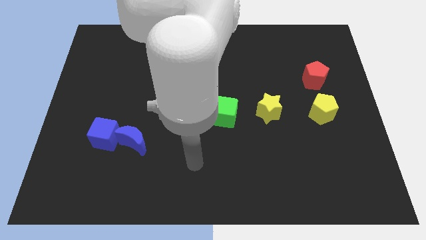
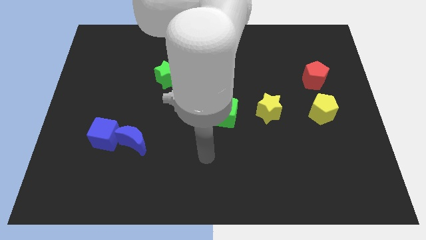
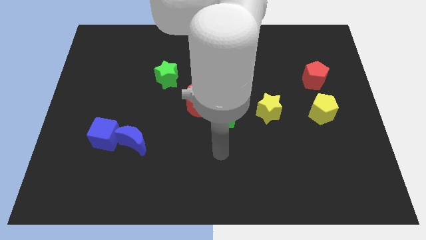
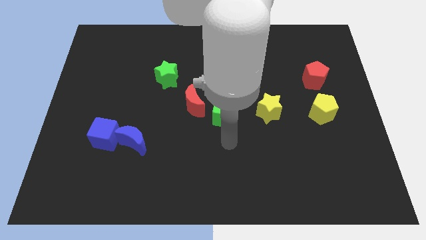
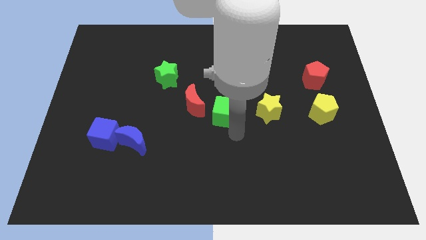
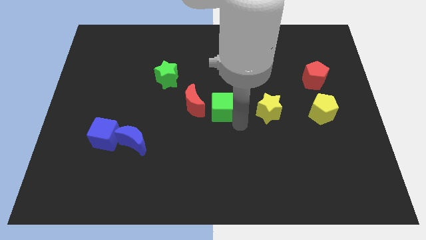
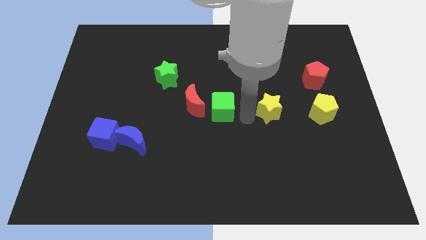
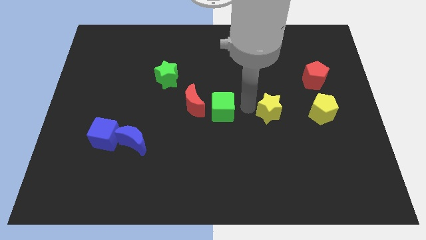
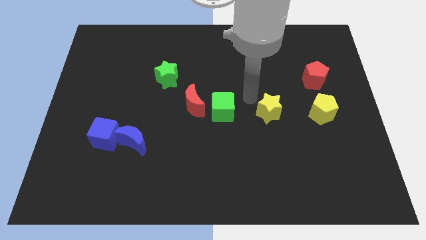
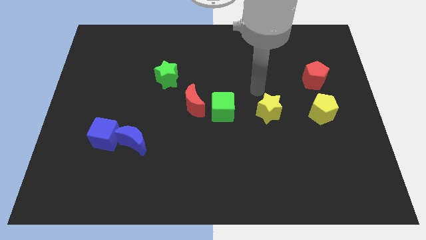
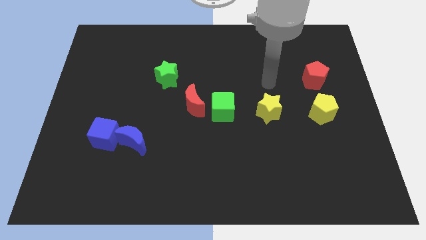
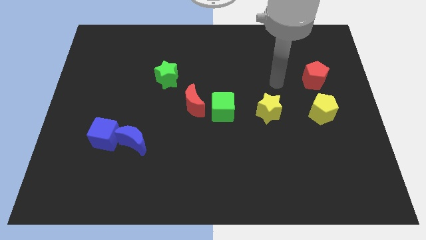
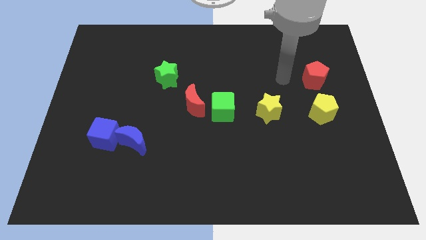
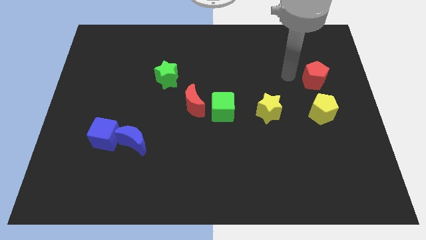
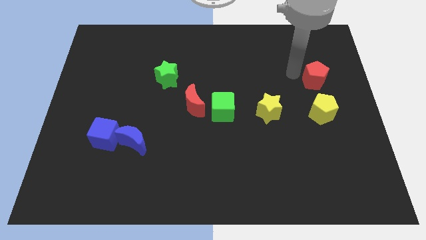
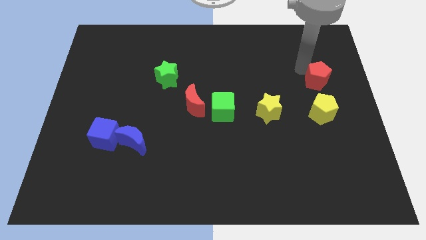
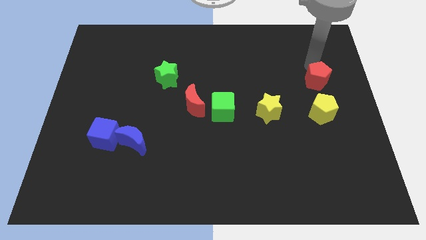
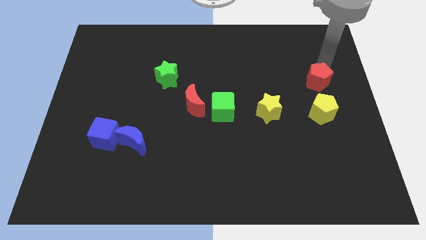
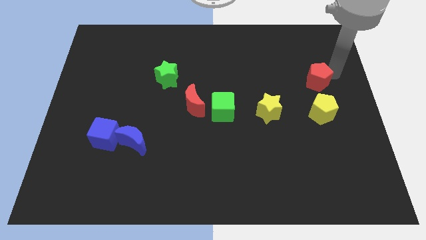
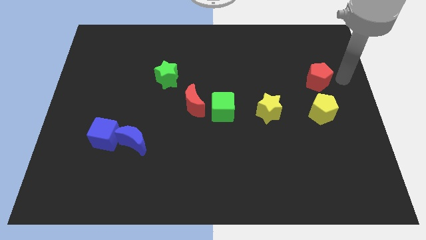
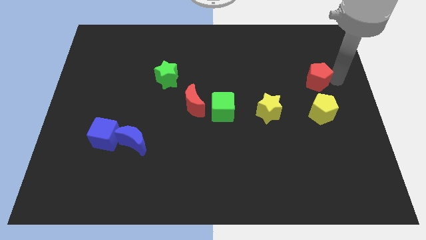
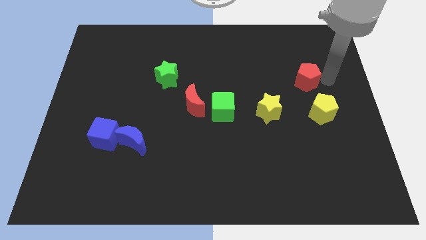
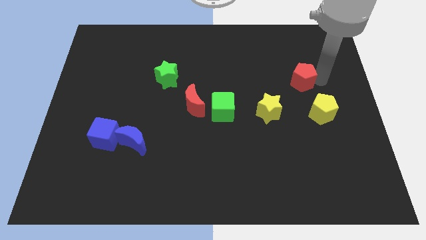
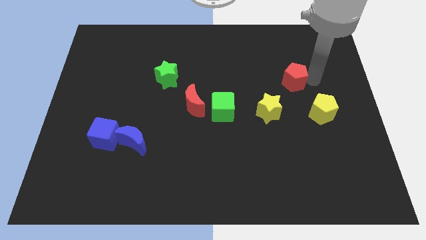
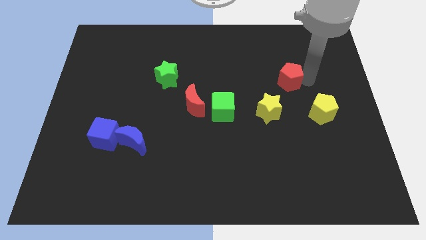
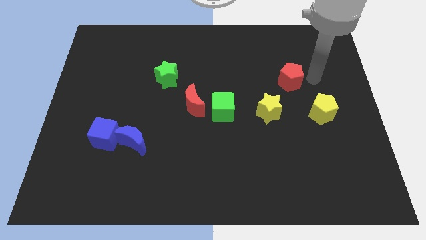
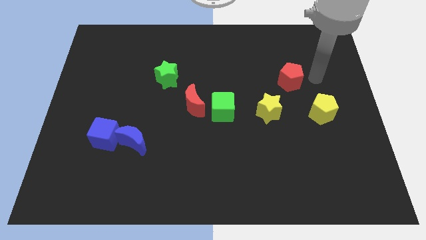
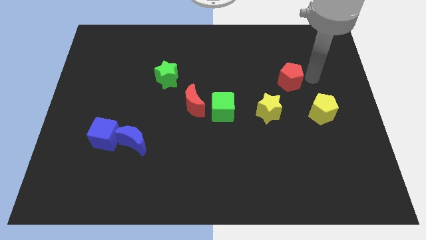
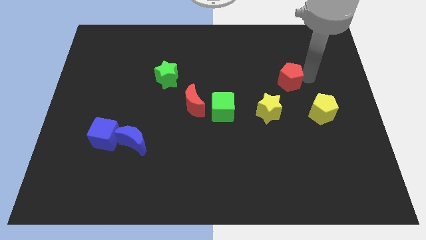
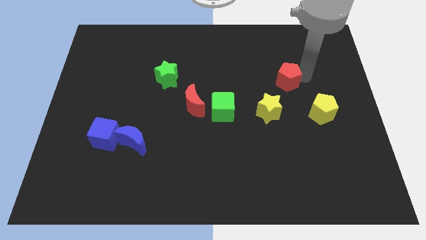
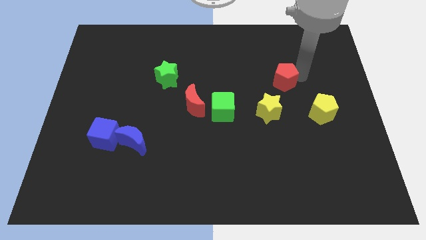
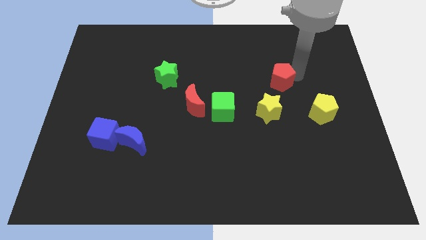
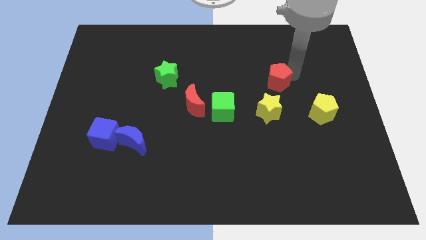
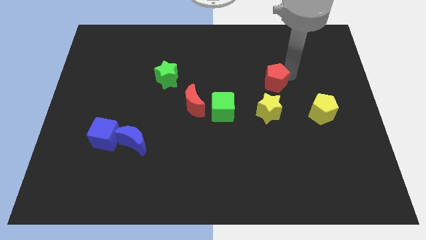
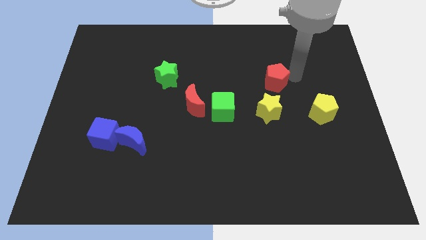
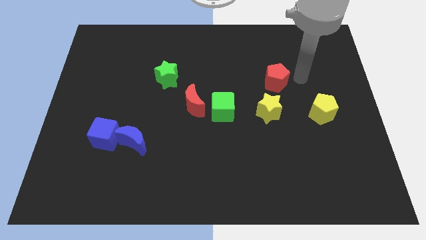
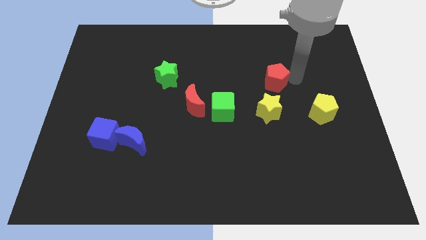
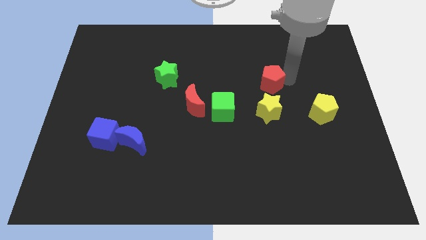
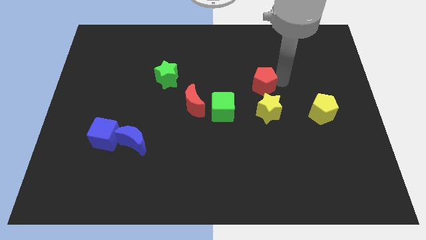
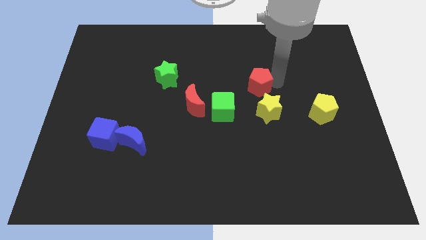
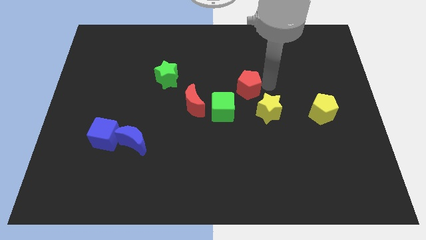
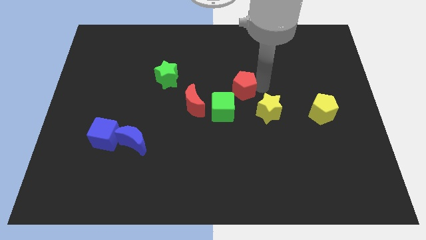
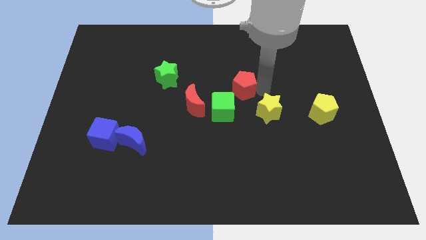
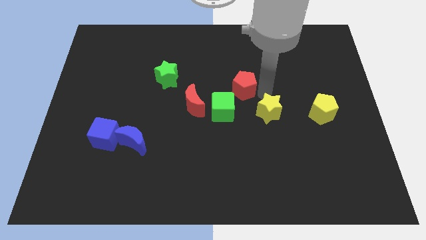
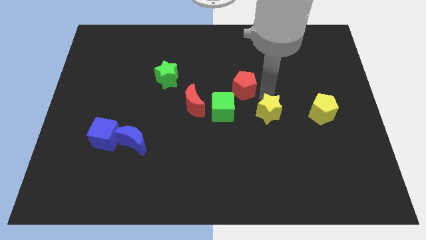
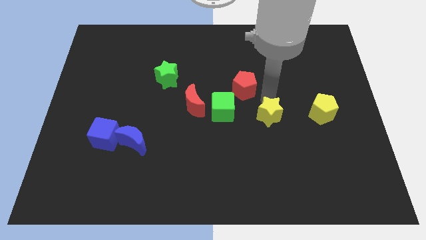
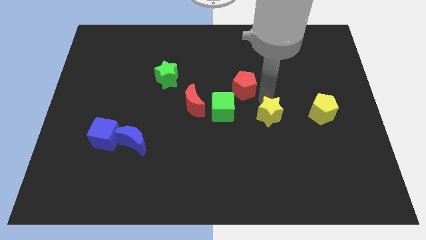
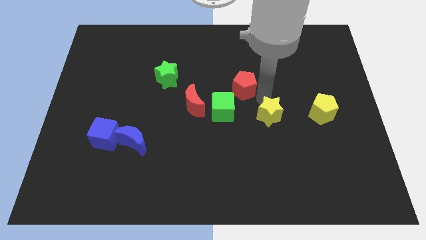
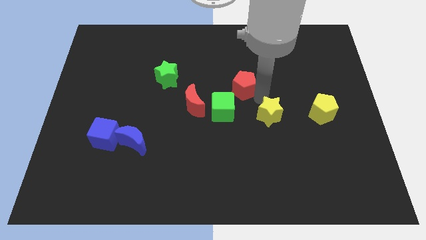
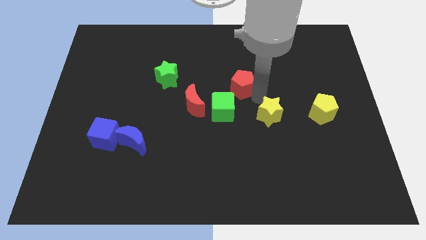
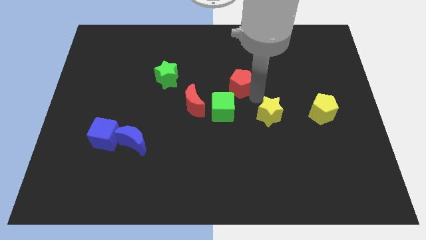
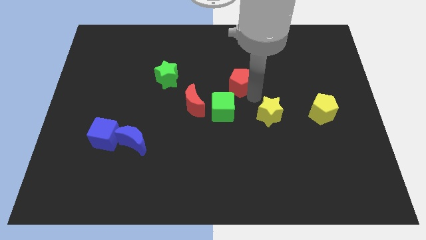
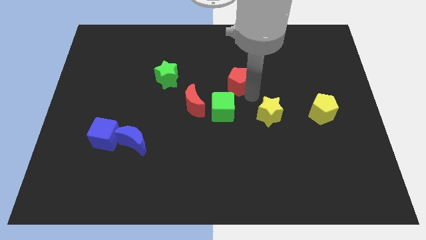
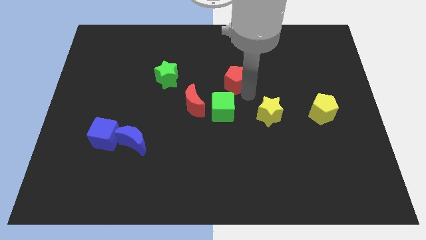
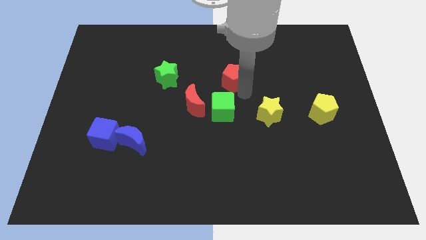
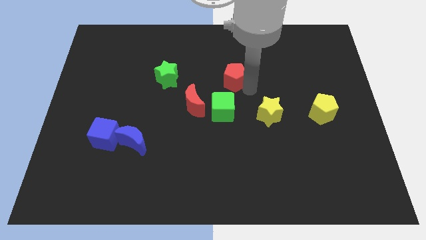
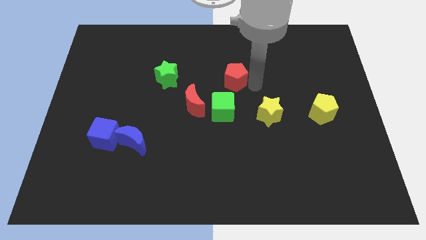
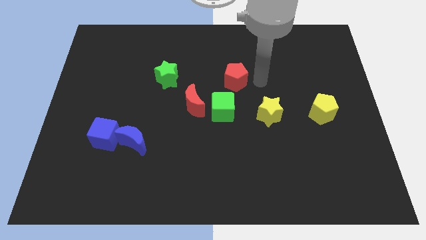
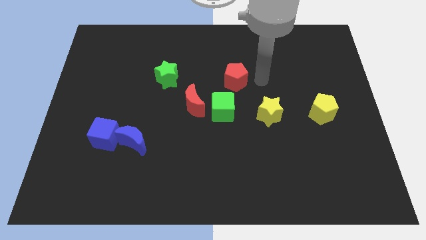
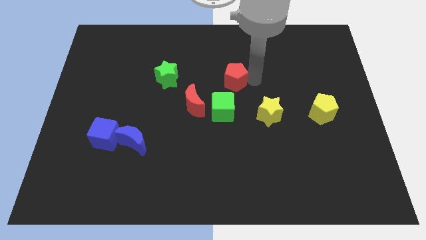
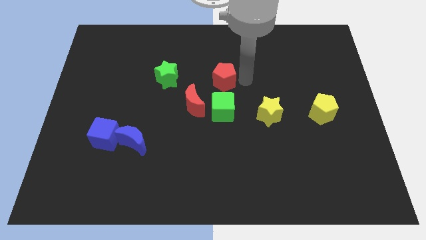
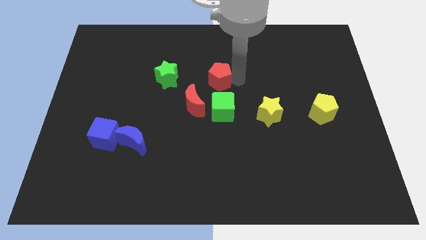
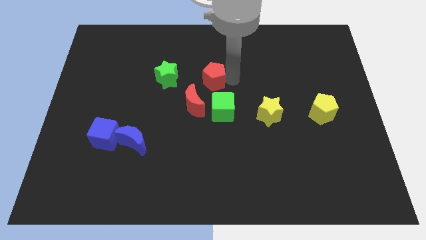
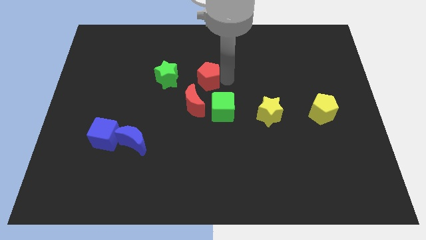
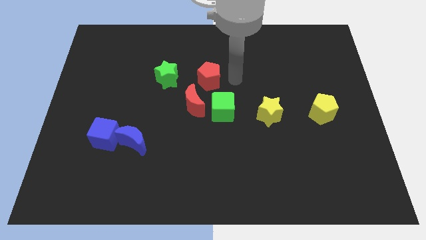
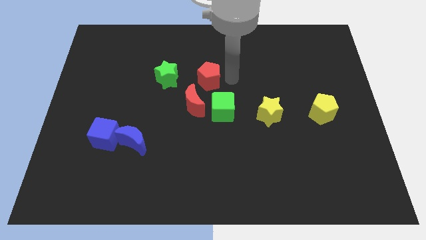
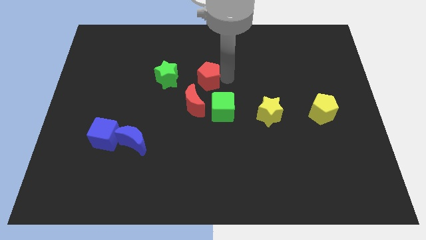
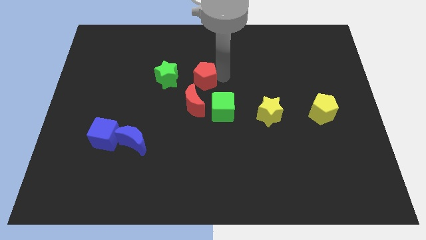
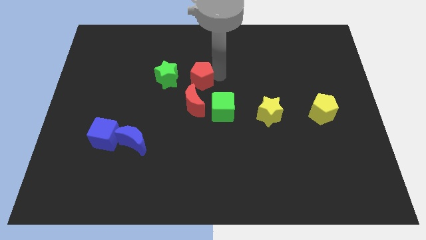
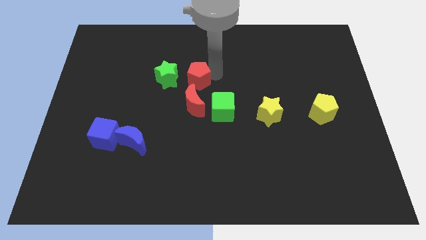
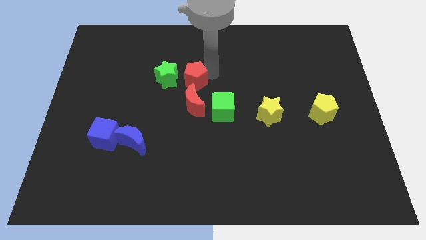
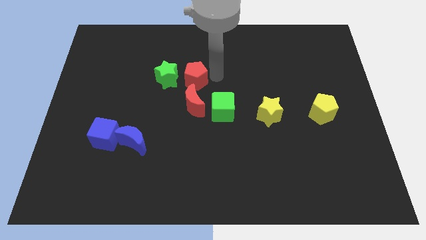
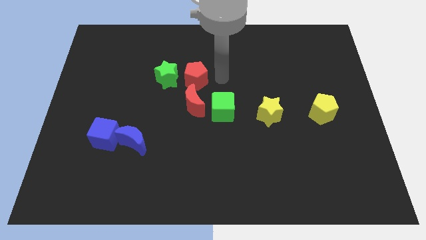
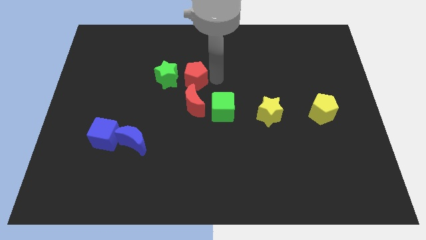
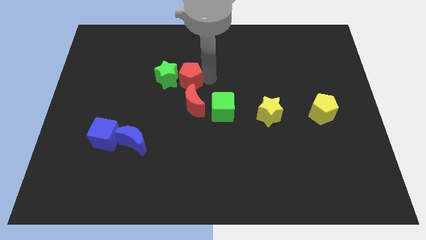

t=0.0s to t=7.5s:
put the red pentagon to the green star
